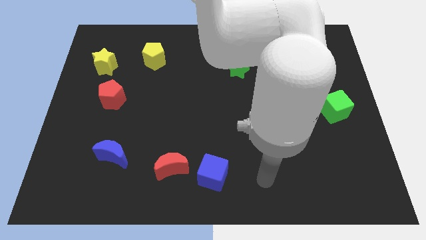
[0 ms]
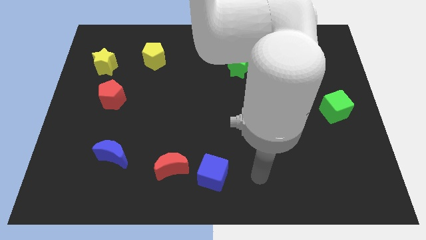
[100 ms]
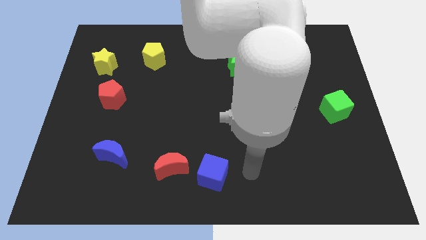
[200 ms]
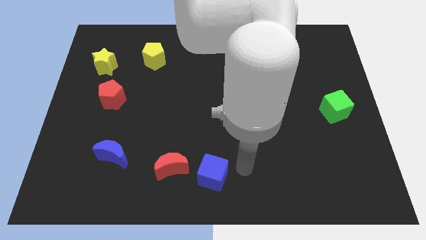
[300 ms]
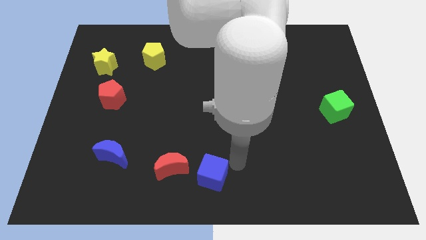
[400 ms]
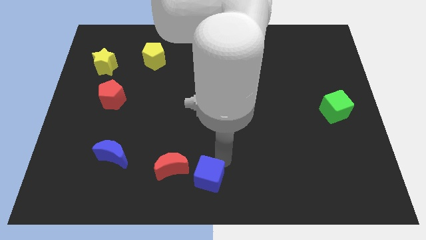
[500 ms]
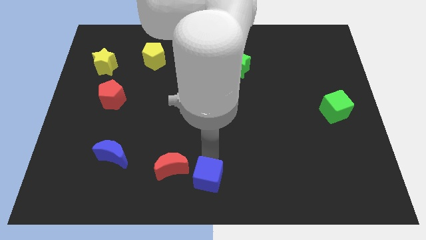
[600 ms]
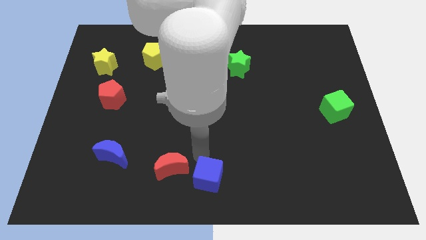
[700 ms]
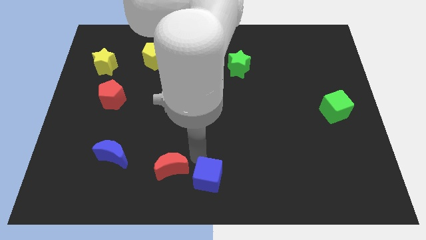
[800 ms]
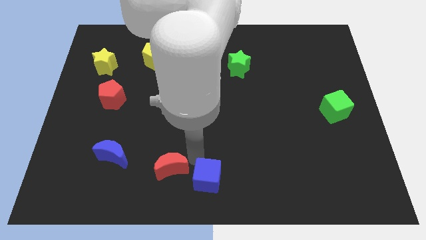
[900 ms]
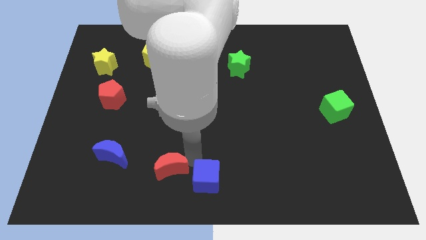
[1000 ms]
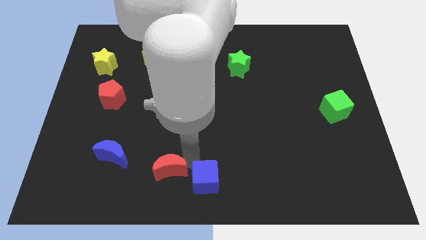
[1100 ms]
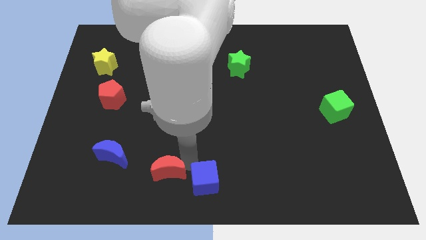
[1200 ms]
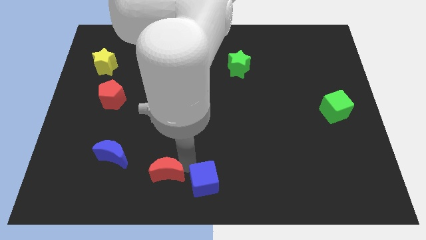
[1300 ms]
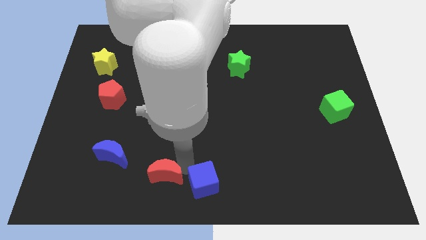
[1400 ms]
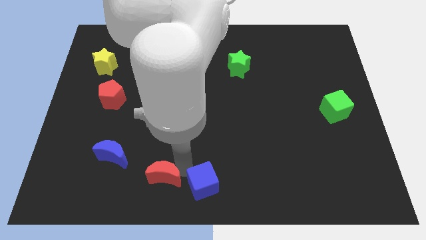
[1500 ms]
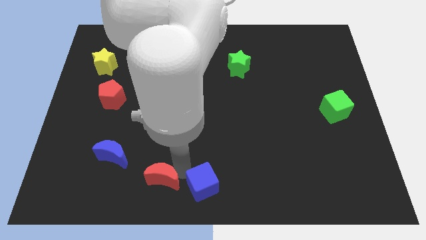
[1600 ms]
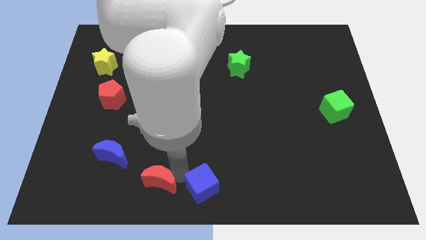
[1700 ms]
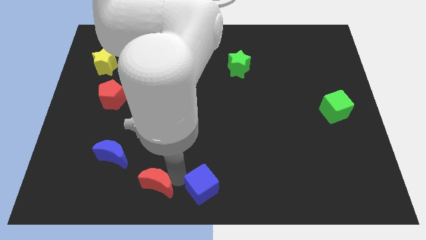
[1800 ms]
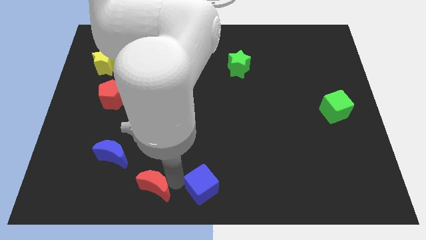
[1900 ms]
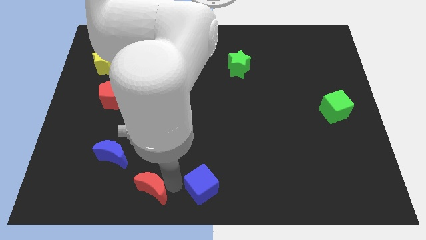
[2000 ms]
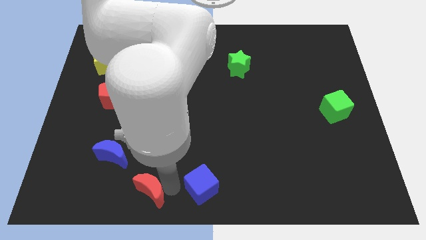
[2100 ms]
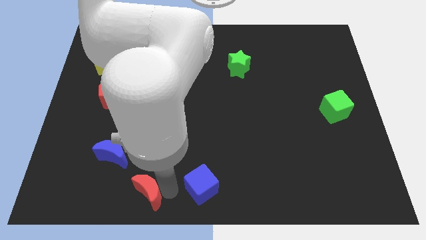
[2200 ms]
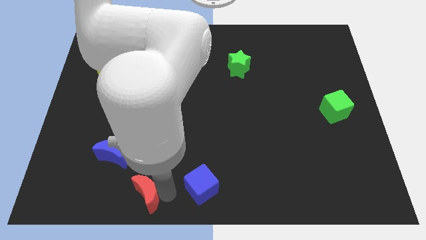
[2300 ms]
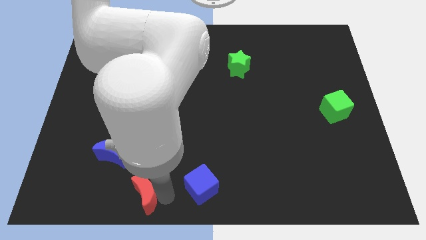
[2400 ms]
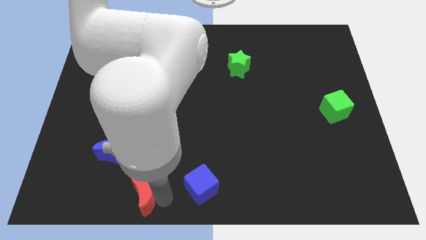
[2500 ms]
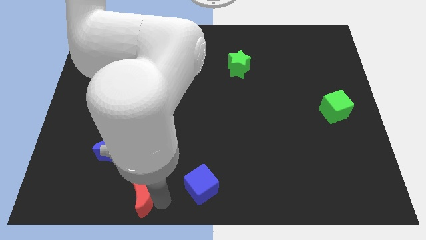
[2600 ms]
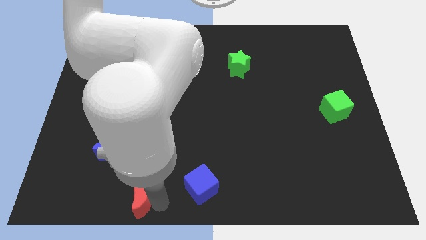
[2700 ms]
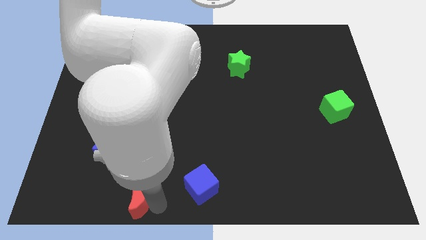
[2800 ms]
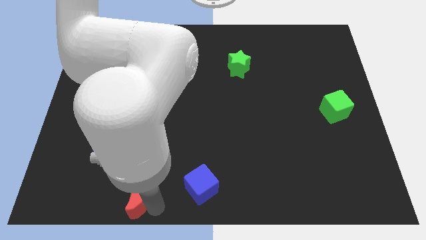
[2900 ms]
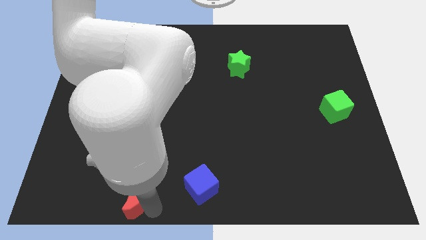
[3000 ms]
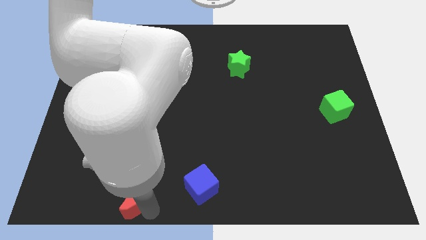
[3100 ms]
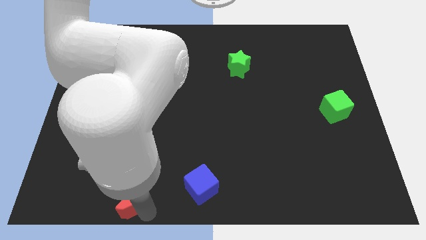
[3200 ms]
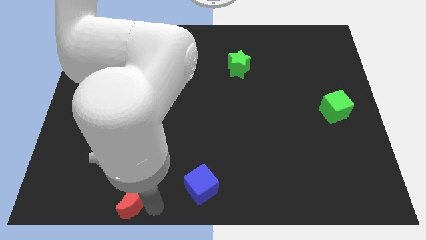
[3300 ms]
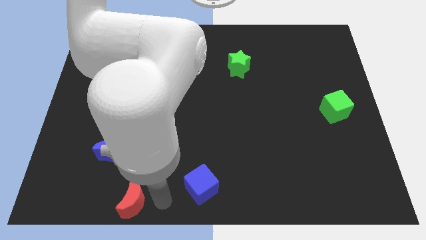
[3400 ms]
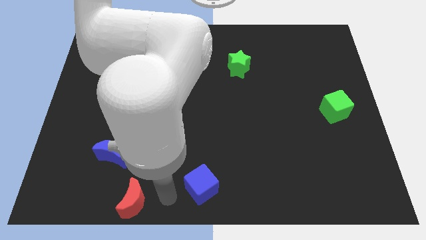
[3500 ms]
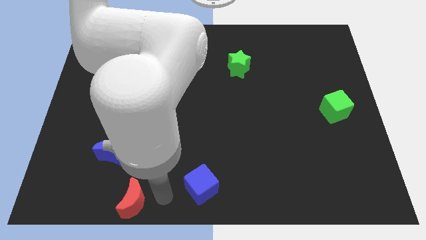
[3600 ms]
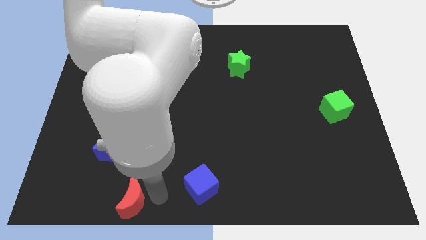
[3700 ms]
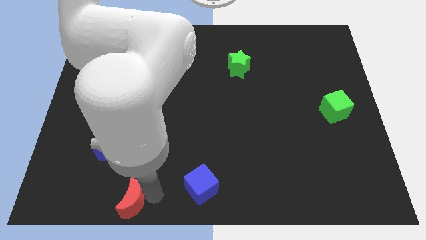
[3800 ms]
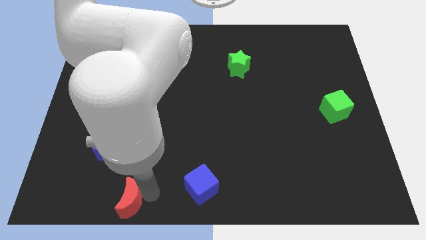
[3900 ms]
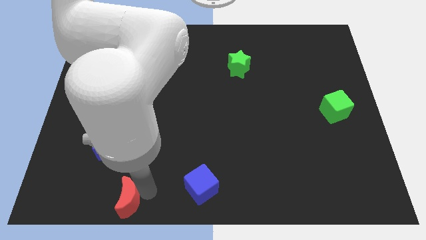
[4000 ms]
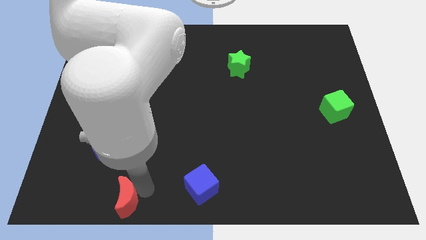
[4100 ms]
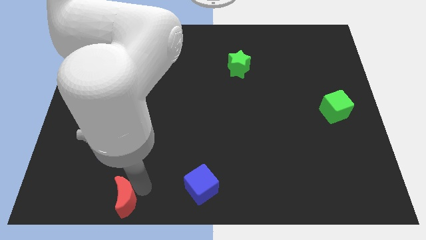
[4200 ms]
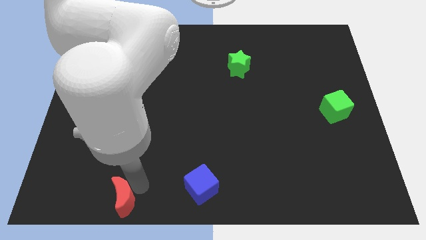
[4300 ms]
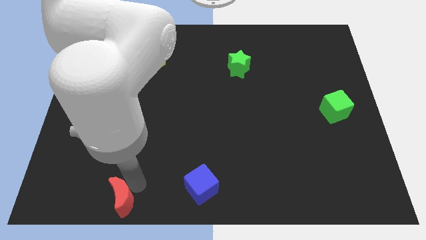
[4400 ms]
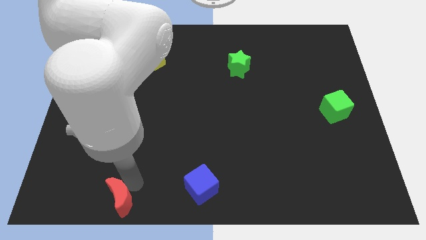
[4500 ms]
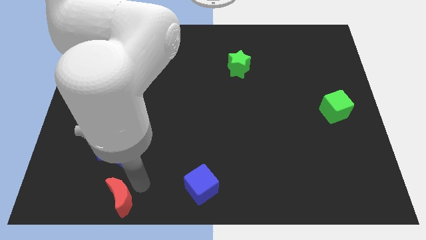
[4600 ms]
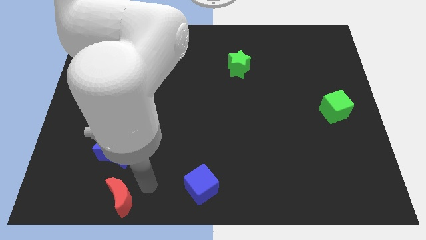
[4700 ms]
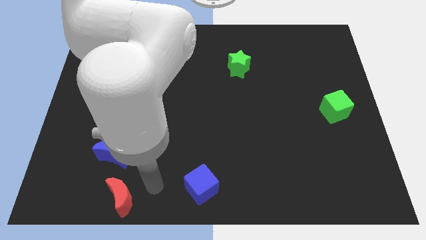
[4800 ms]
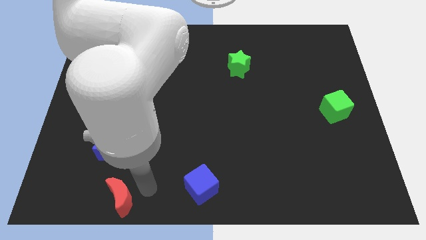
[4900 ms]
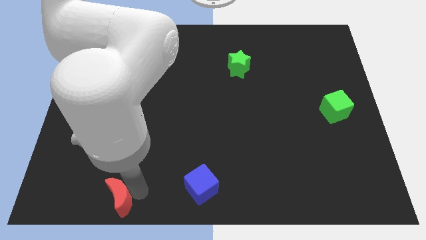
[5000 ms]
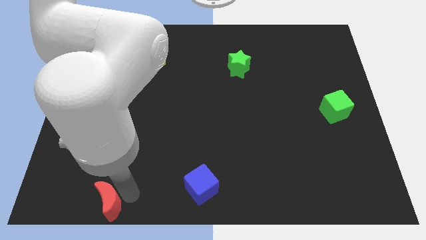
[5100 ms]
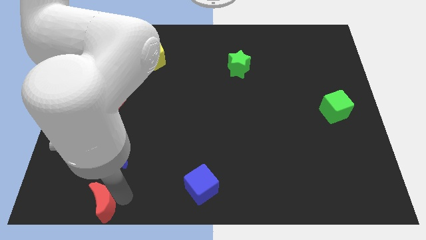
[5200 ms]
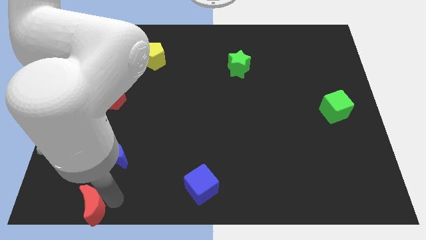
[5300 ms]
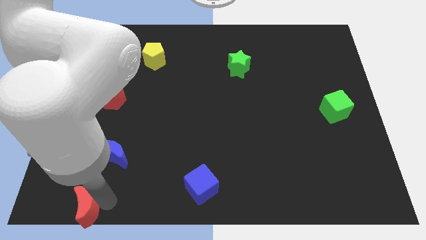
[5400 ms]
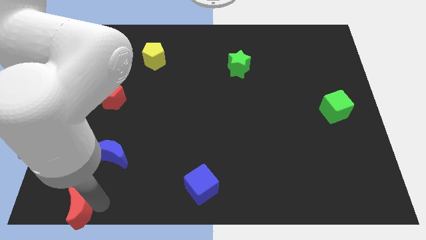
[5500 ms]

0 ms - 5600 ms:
push the red moon to the lower left corner

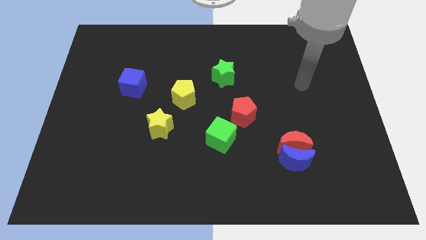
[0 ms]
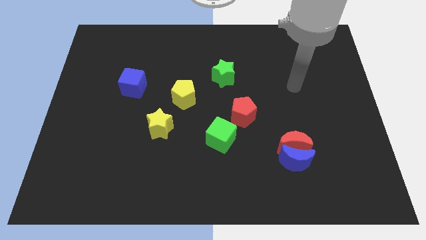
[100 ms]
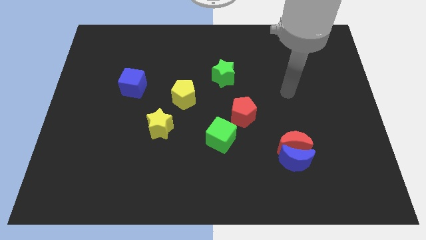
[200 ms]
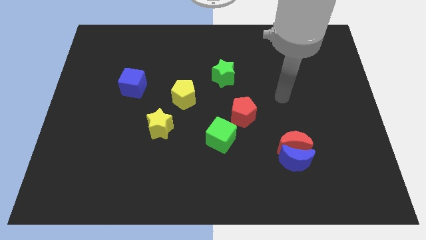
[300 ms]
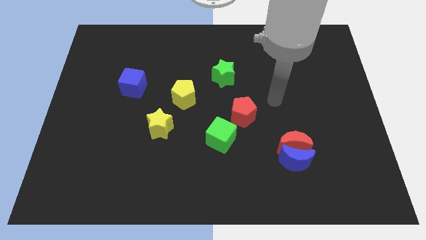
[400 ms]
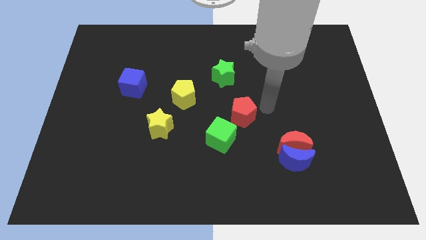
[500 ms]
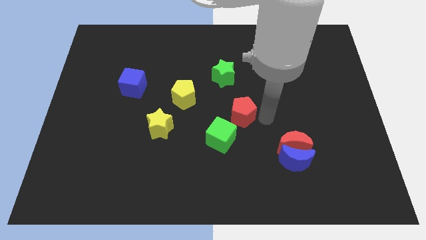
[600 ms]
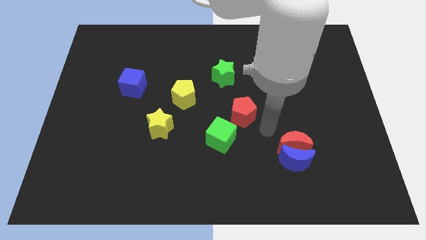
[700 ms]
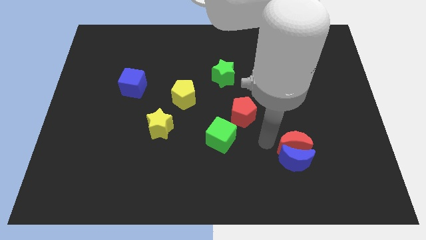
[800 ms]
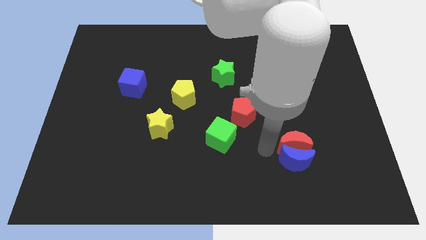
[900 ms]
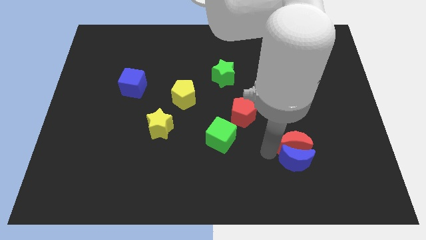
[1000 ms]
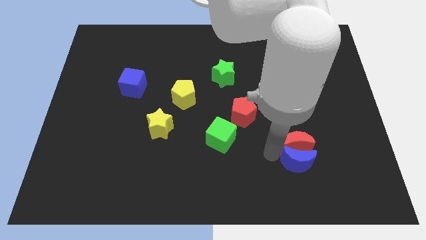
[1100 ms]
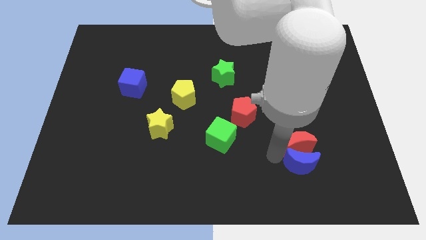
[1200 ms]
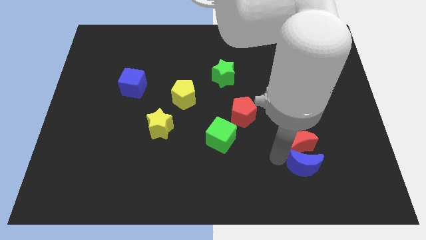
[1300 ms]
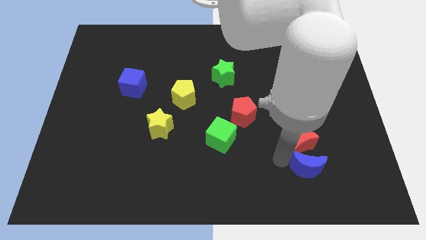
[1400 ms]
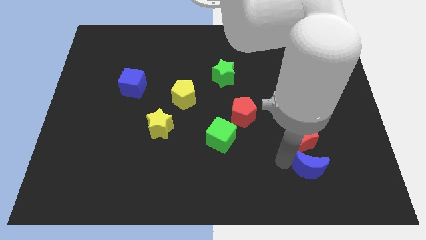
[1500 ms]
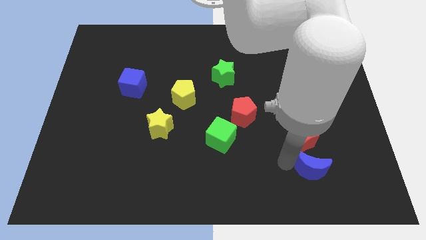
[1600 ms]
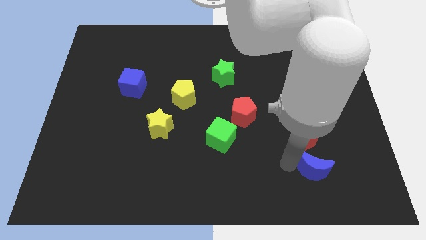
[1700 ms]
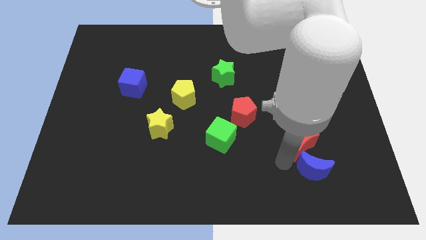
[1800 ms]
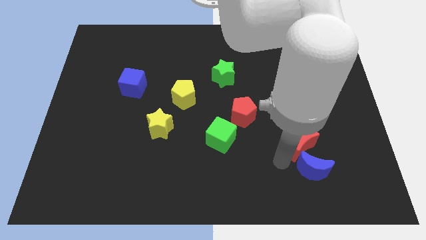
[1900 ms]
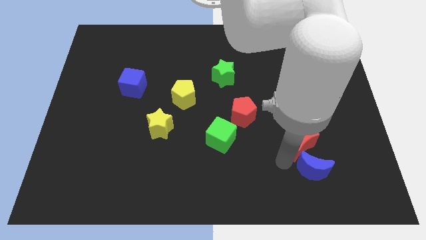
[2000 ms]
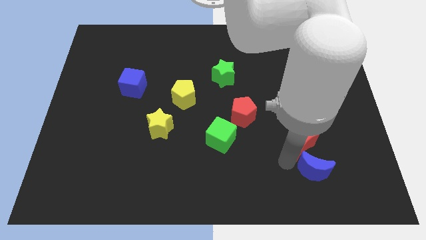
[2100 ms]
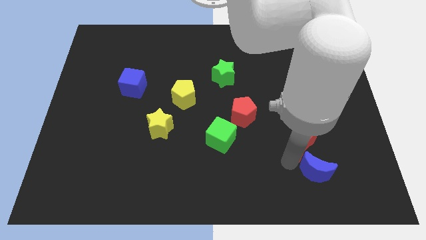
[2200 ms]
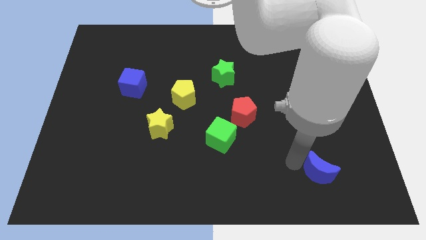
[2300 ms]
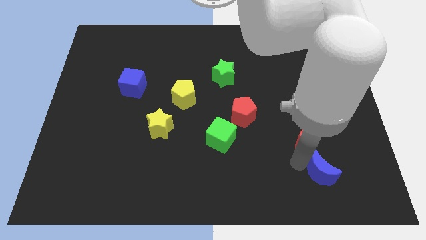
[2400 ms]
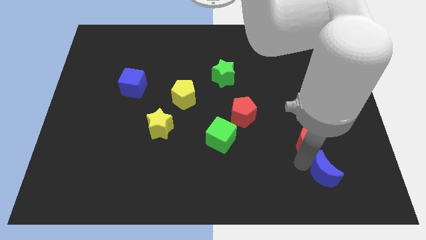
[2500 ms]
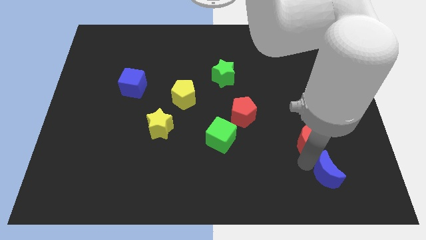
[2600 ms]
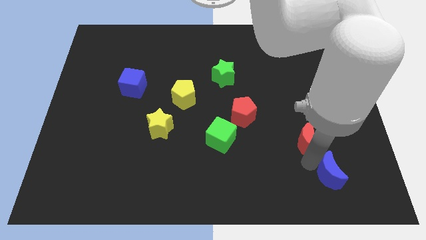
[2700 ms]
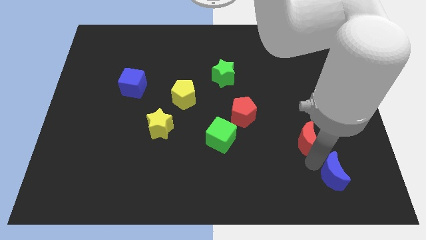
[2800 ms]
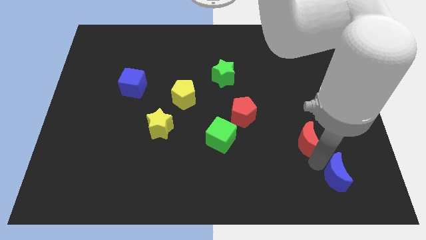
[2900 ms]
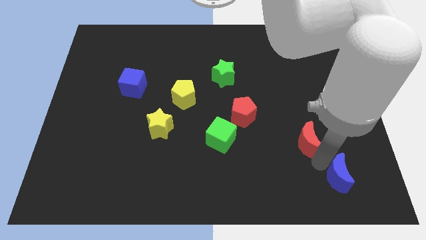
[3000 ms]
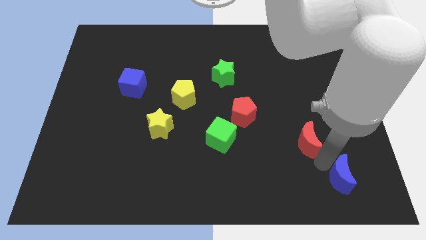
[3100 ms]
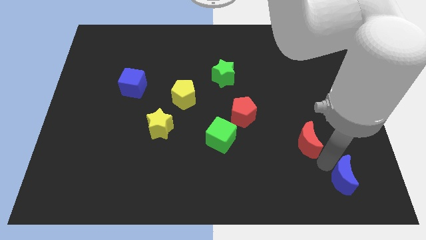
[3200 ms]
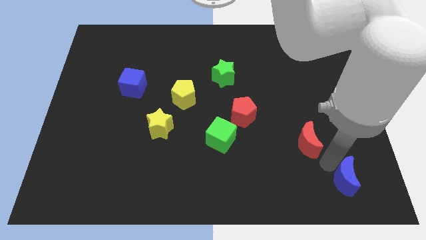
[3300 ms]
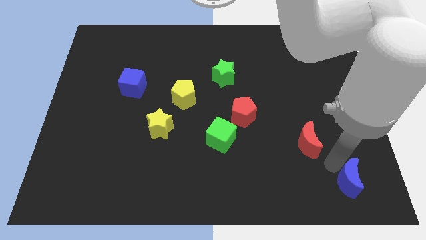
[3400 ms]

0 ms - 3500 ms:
put the blue moon to the lower right corner
